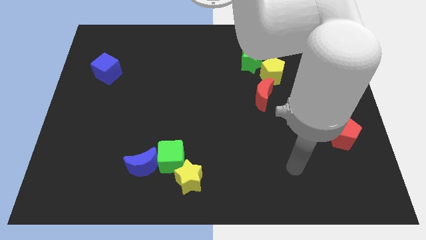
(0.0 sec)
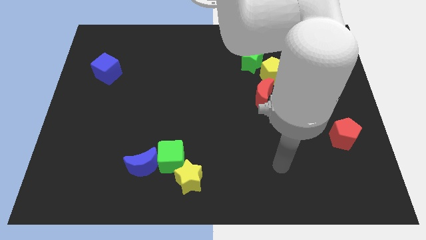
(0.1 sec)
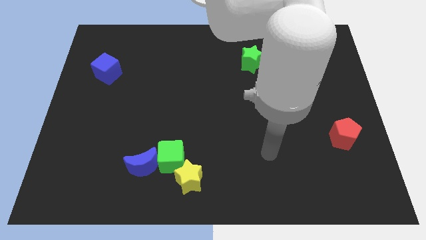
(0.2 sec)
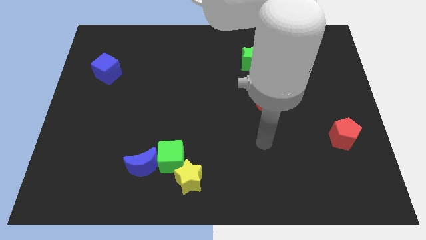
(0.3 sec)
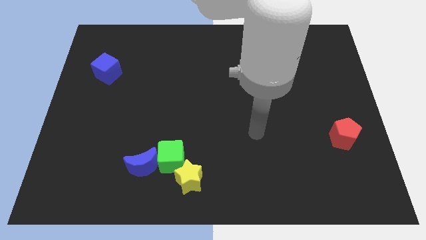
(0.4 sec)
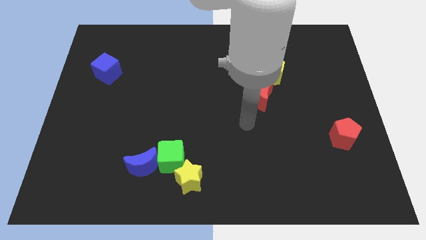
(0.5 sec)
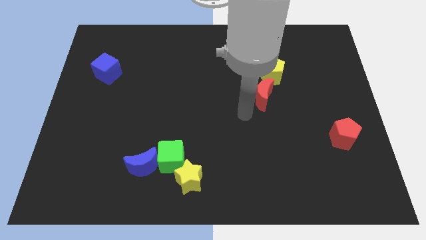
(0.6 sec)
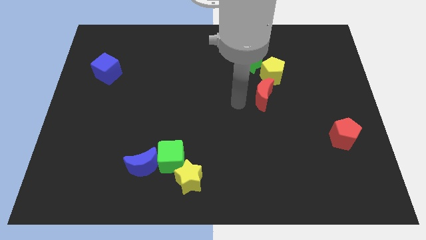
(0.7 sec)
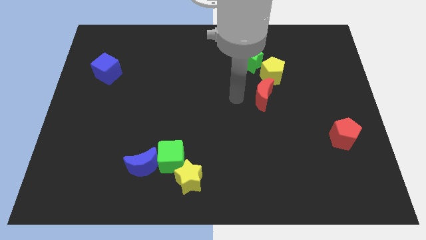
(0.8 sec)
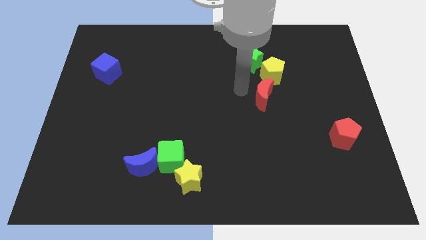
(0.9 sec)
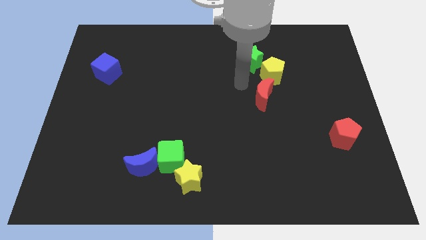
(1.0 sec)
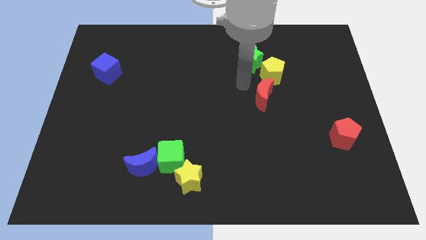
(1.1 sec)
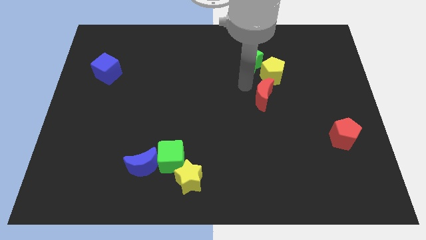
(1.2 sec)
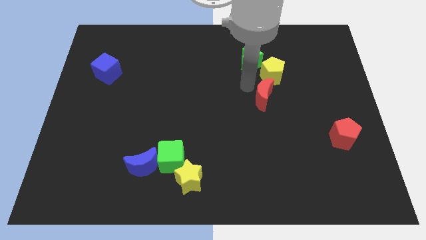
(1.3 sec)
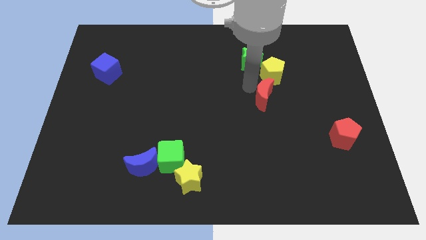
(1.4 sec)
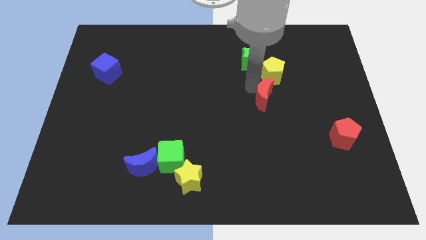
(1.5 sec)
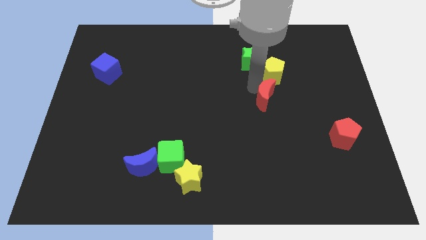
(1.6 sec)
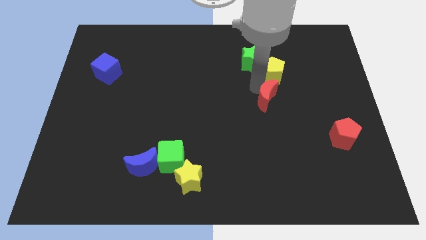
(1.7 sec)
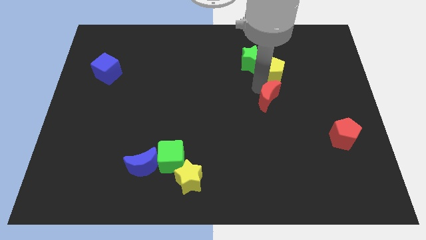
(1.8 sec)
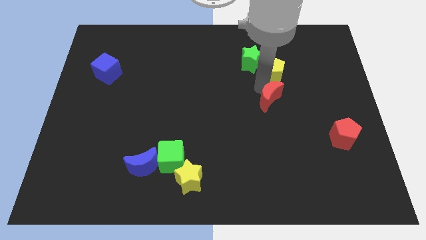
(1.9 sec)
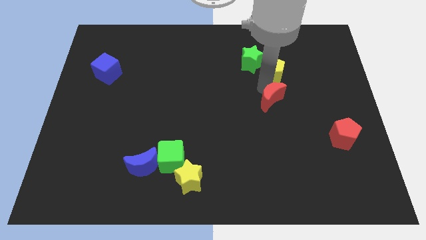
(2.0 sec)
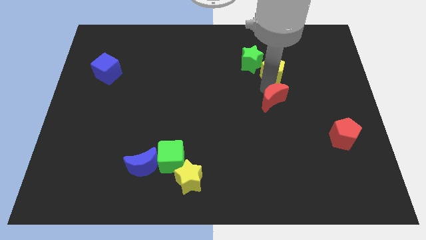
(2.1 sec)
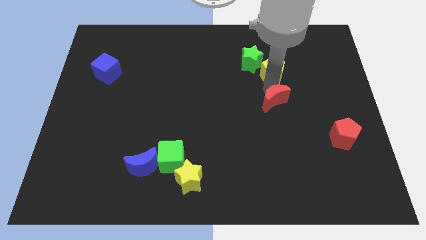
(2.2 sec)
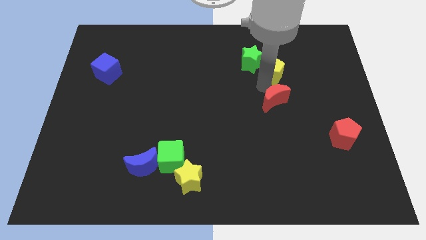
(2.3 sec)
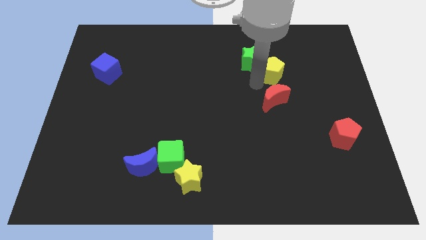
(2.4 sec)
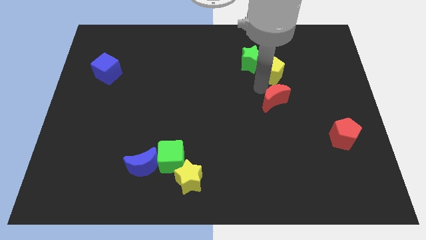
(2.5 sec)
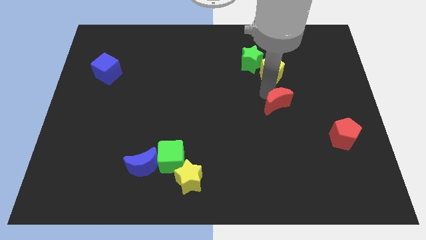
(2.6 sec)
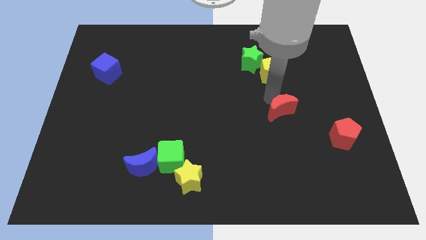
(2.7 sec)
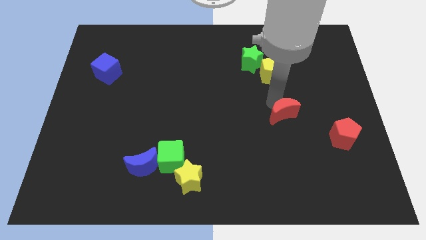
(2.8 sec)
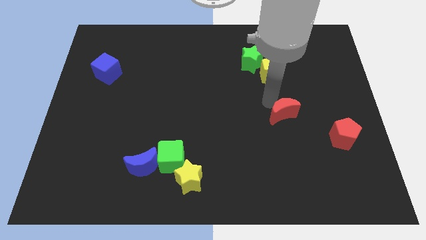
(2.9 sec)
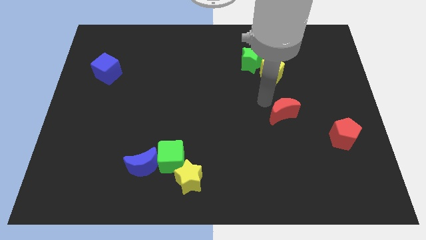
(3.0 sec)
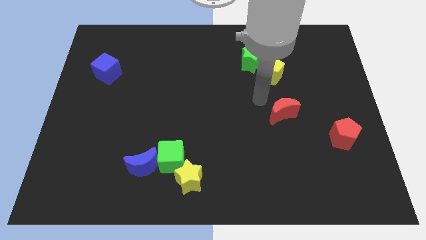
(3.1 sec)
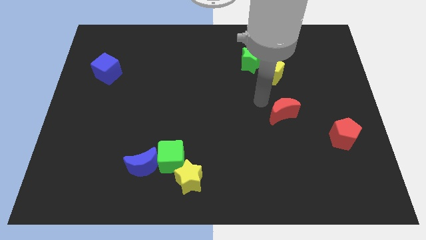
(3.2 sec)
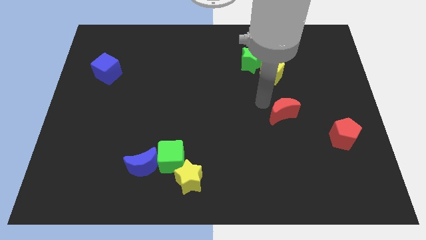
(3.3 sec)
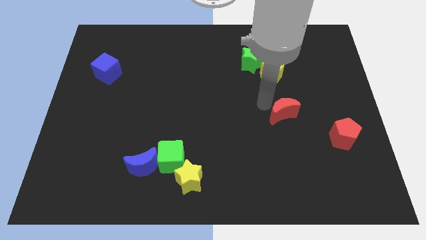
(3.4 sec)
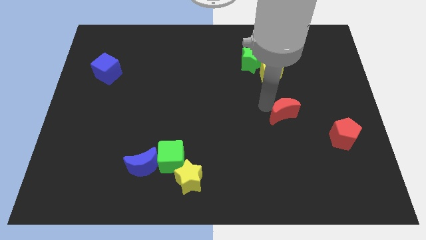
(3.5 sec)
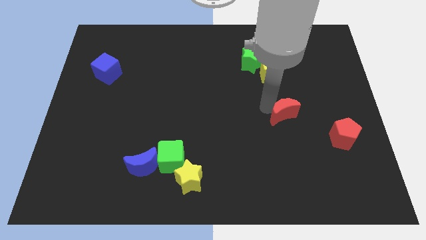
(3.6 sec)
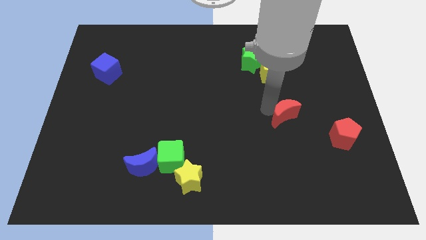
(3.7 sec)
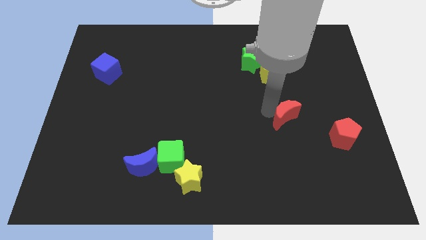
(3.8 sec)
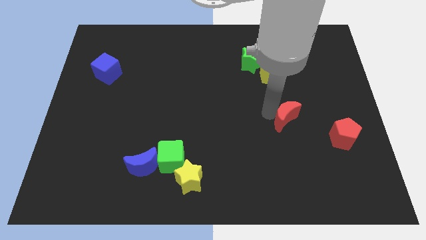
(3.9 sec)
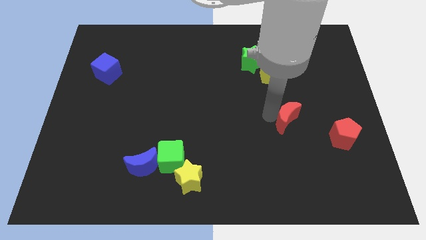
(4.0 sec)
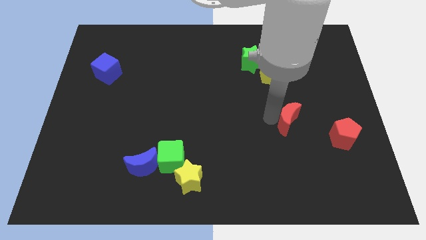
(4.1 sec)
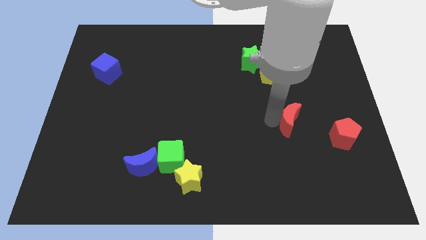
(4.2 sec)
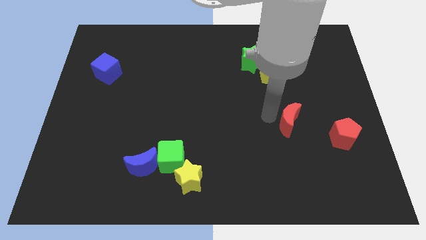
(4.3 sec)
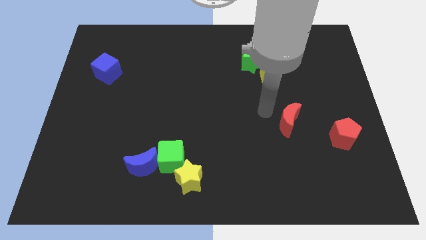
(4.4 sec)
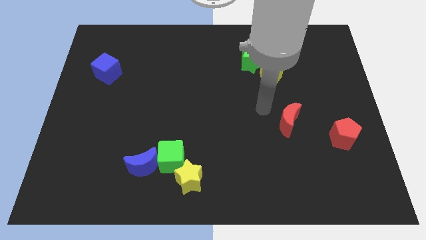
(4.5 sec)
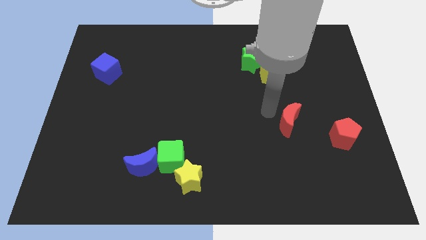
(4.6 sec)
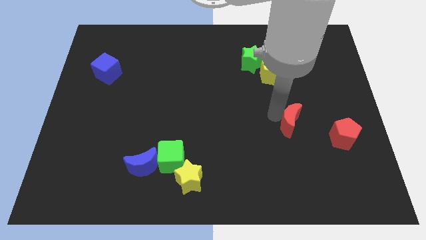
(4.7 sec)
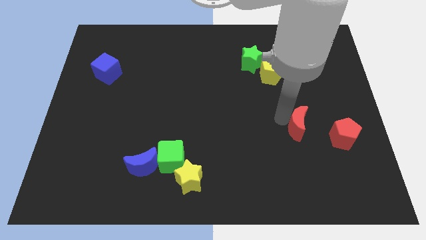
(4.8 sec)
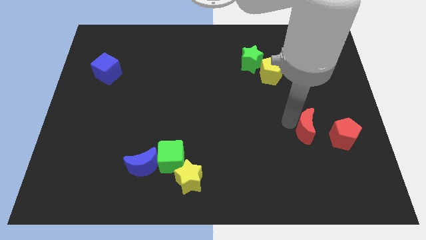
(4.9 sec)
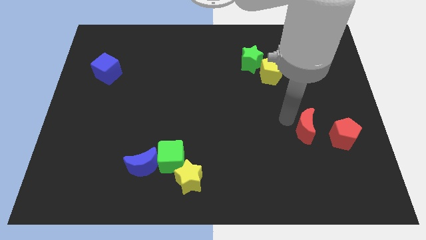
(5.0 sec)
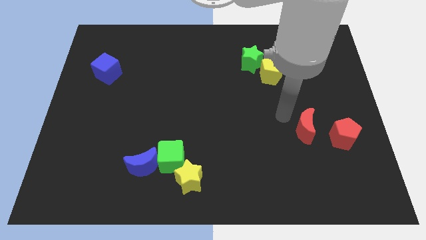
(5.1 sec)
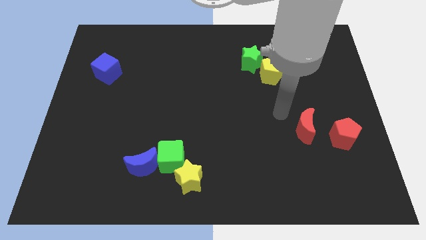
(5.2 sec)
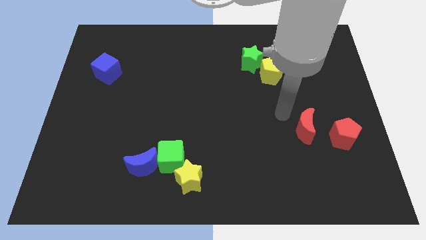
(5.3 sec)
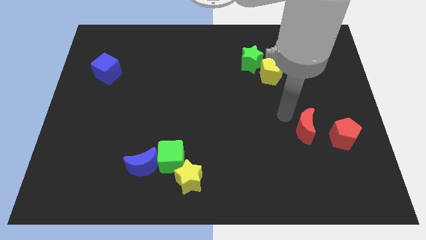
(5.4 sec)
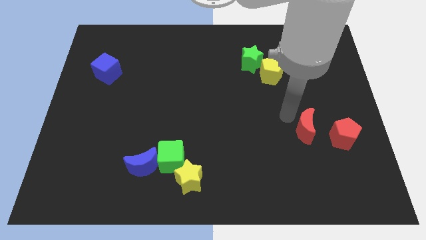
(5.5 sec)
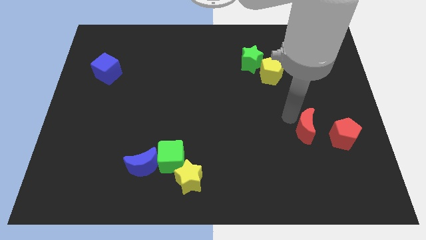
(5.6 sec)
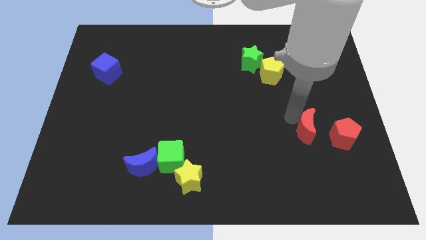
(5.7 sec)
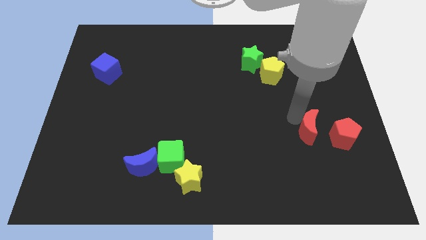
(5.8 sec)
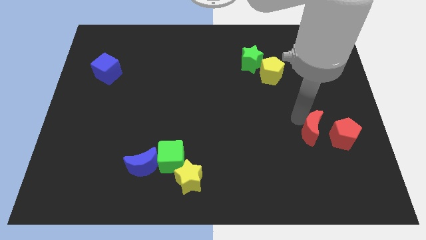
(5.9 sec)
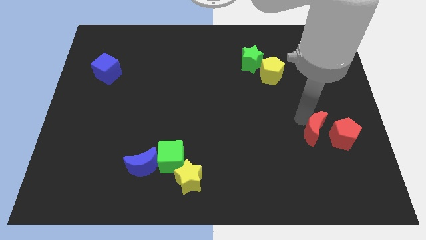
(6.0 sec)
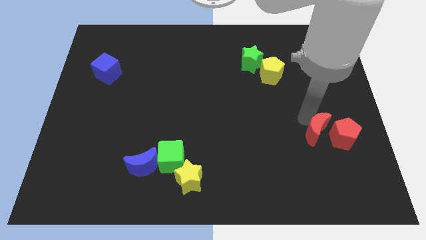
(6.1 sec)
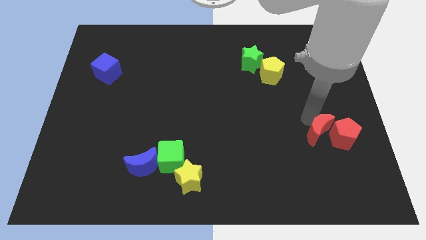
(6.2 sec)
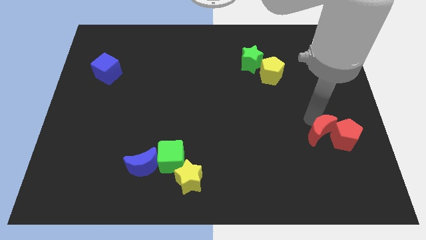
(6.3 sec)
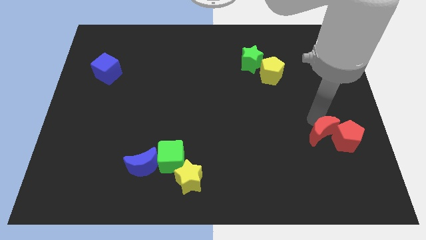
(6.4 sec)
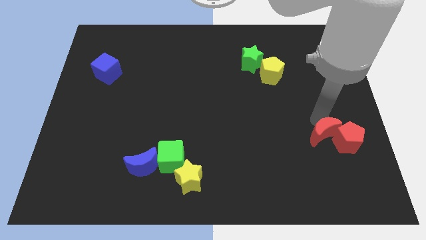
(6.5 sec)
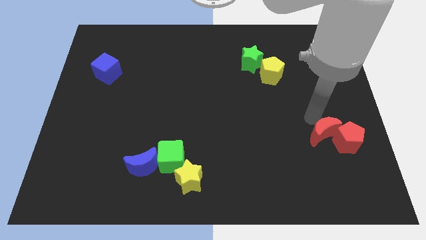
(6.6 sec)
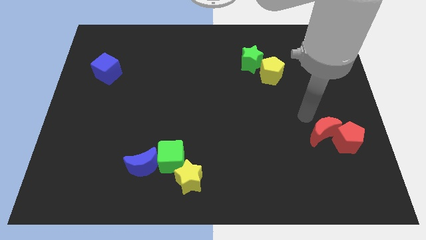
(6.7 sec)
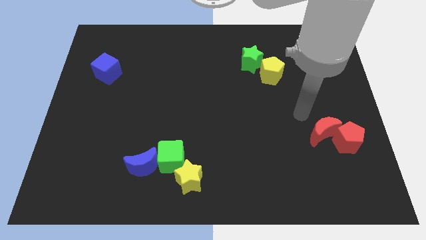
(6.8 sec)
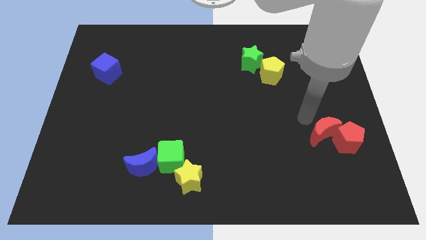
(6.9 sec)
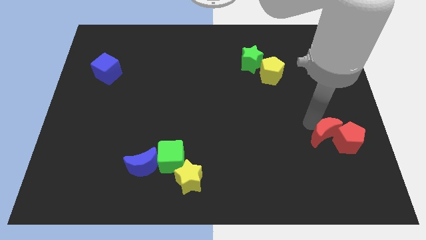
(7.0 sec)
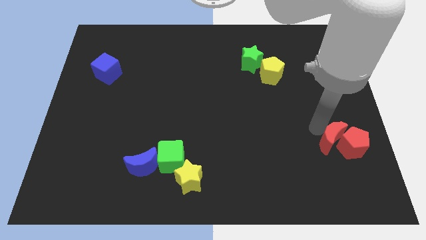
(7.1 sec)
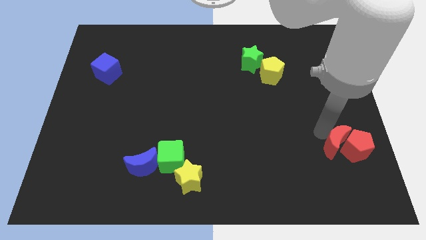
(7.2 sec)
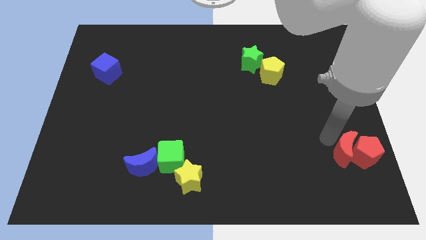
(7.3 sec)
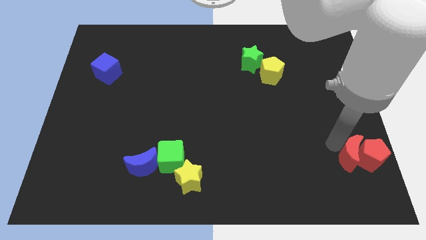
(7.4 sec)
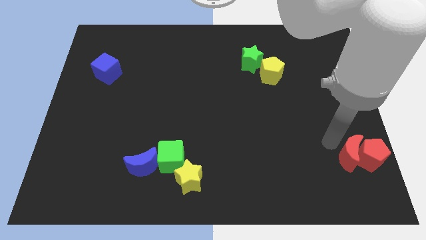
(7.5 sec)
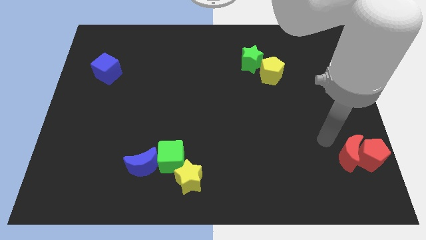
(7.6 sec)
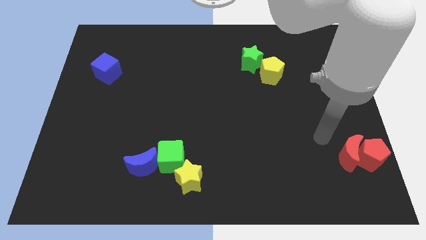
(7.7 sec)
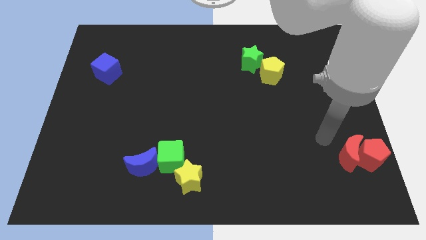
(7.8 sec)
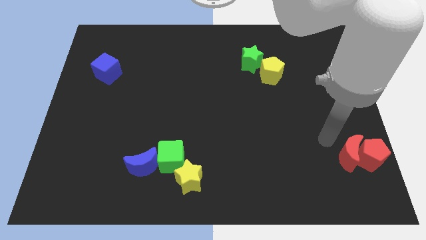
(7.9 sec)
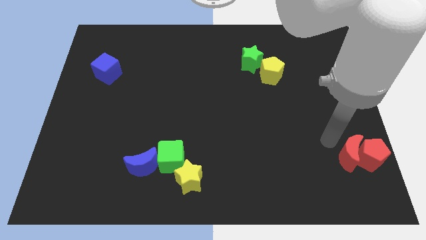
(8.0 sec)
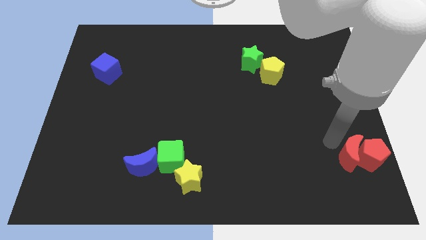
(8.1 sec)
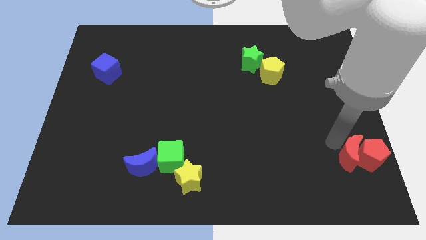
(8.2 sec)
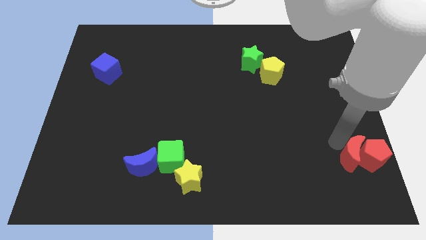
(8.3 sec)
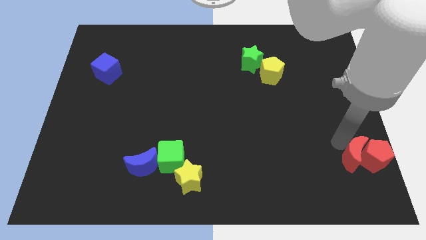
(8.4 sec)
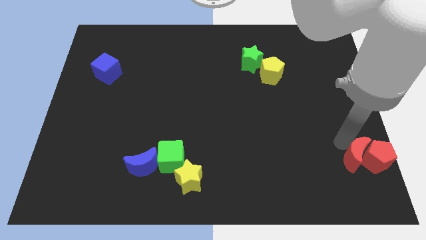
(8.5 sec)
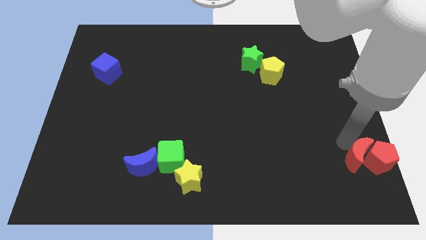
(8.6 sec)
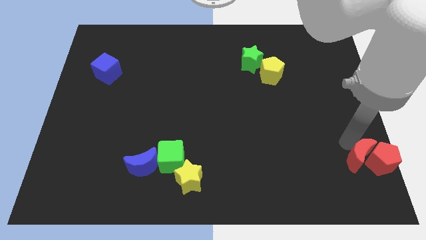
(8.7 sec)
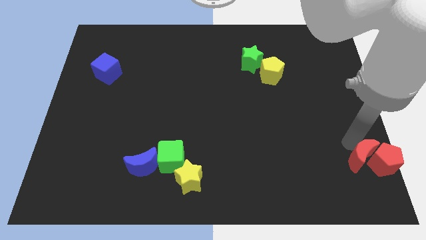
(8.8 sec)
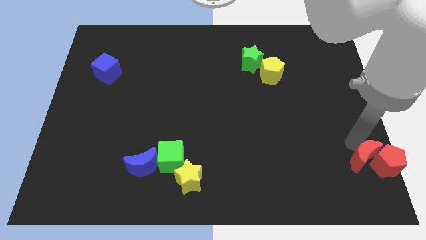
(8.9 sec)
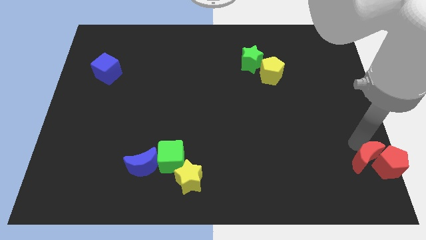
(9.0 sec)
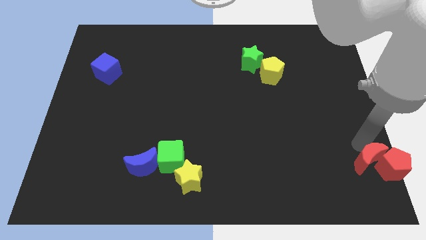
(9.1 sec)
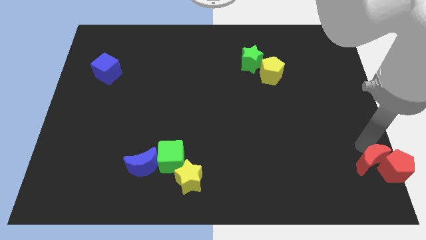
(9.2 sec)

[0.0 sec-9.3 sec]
slide the red moon to the bottom right corner
